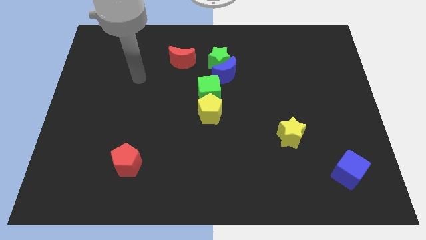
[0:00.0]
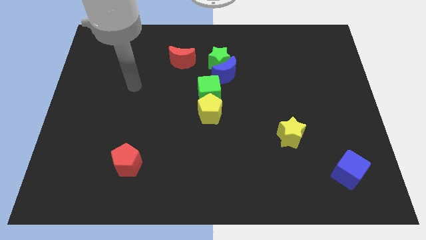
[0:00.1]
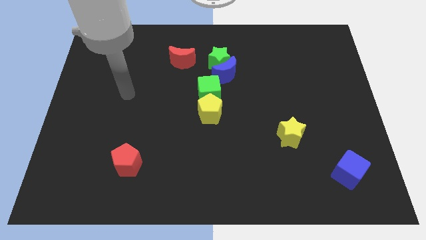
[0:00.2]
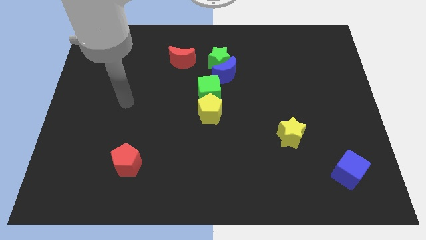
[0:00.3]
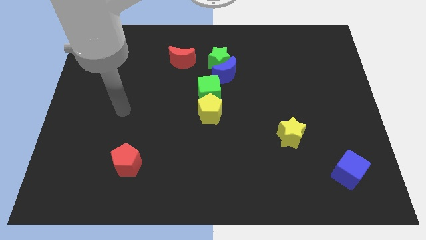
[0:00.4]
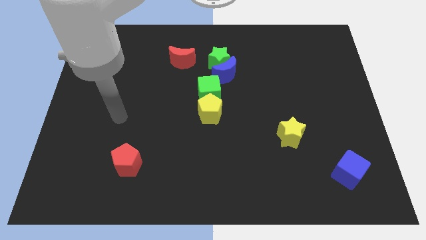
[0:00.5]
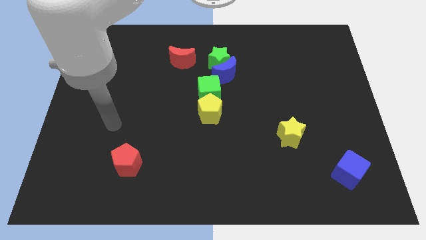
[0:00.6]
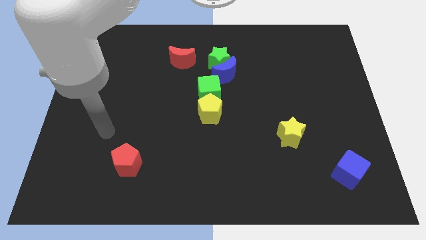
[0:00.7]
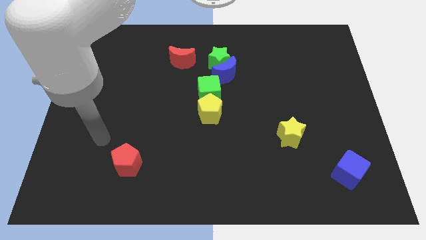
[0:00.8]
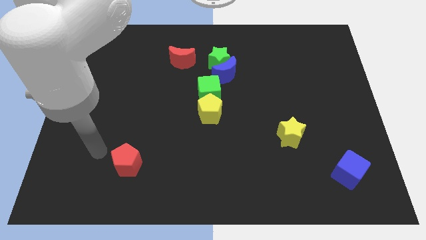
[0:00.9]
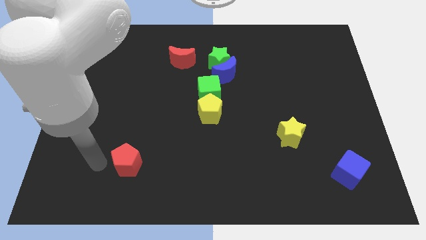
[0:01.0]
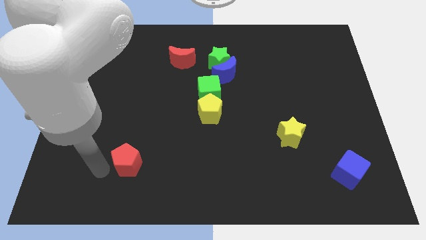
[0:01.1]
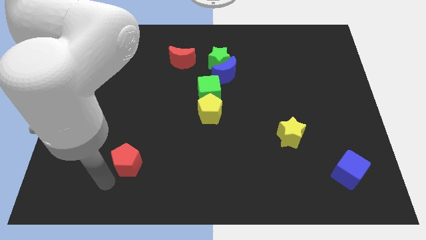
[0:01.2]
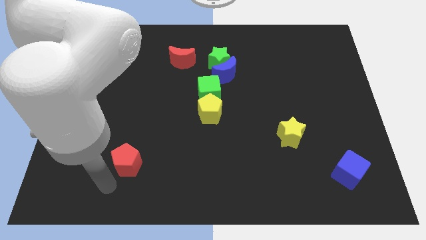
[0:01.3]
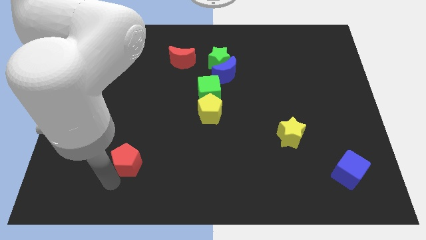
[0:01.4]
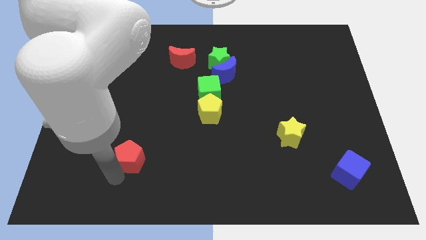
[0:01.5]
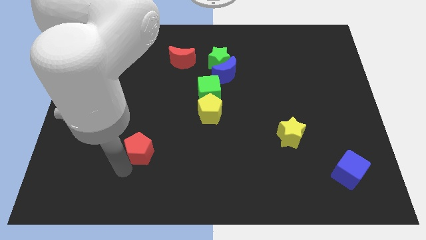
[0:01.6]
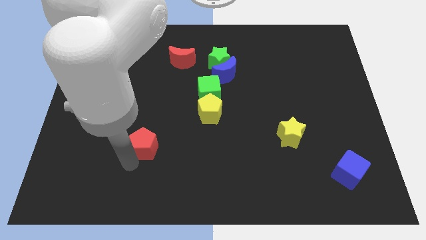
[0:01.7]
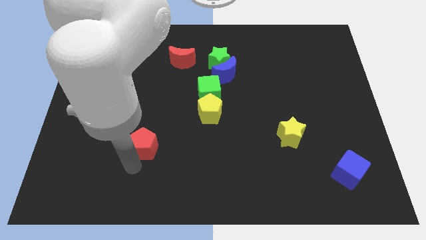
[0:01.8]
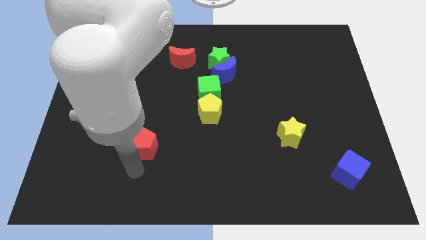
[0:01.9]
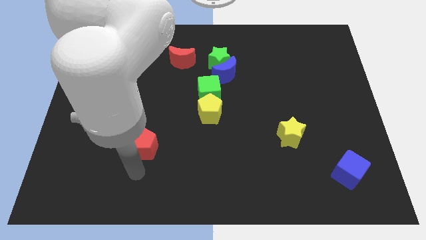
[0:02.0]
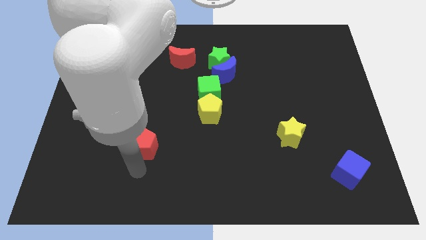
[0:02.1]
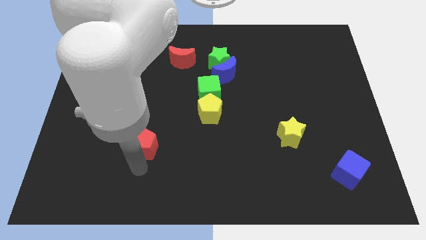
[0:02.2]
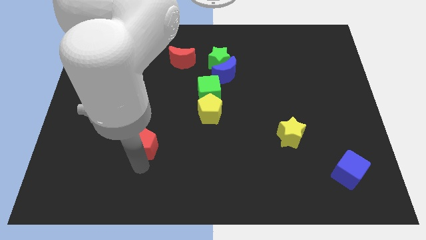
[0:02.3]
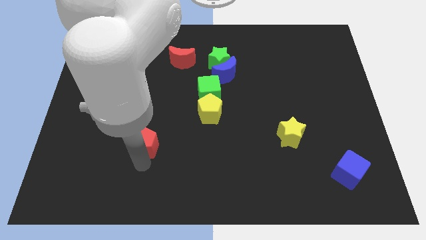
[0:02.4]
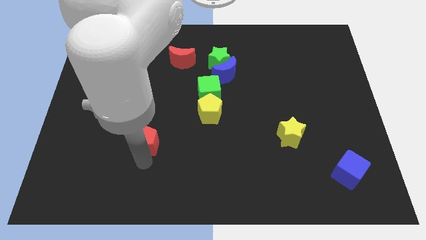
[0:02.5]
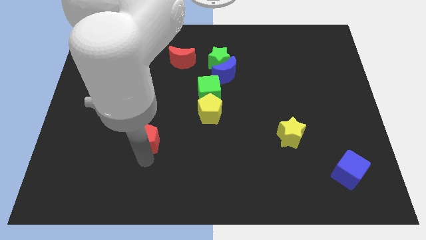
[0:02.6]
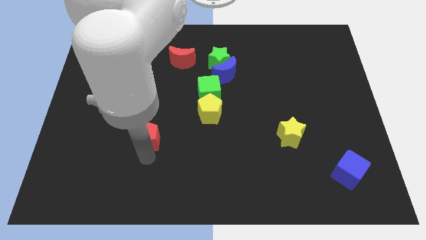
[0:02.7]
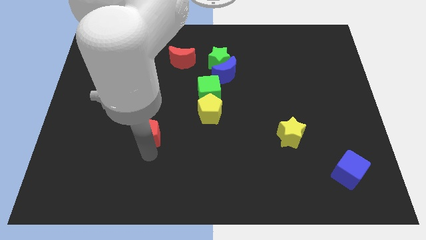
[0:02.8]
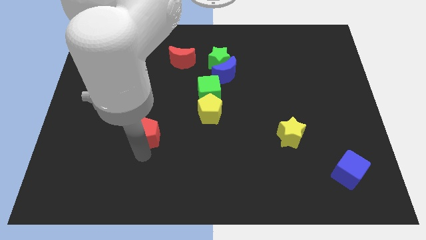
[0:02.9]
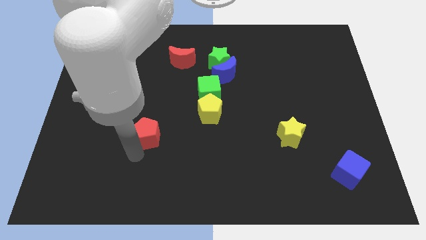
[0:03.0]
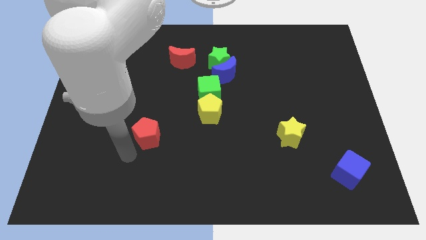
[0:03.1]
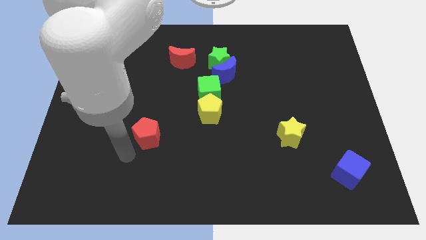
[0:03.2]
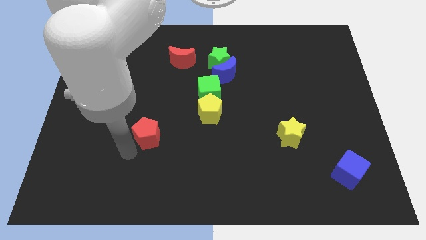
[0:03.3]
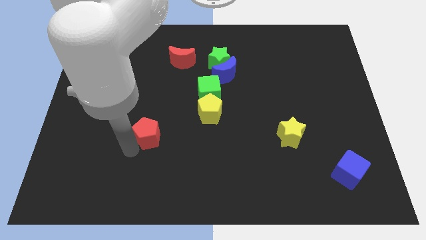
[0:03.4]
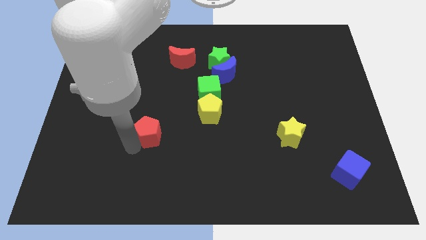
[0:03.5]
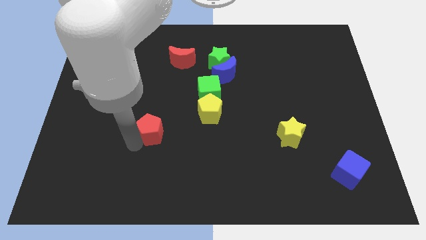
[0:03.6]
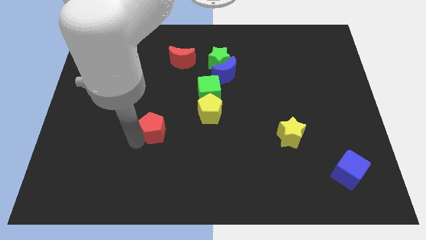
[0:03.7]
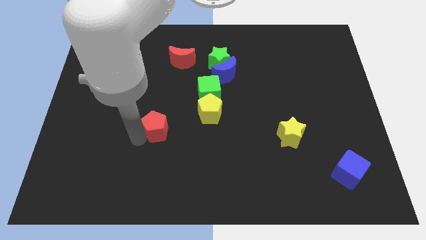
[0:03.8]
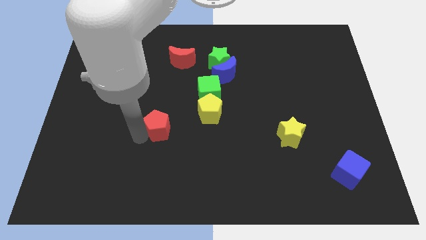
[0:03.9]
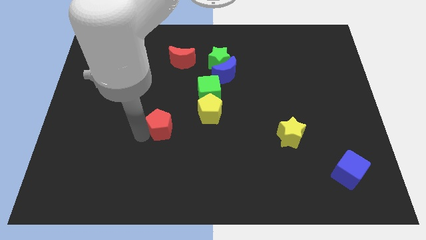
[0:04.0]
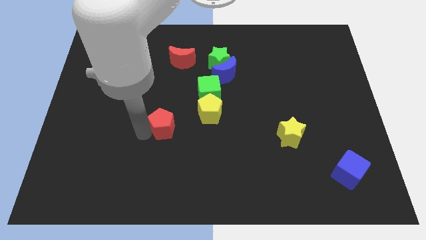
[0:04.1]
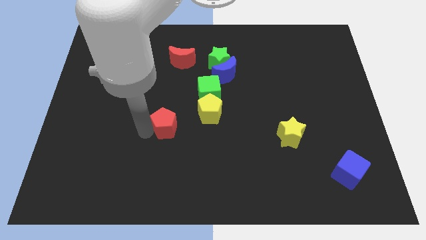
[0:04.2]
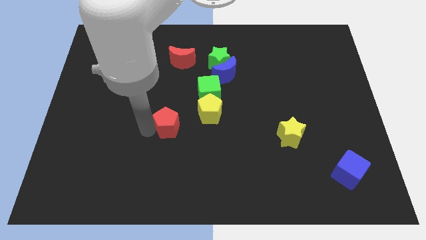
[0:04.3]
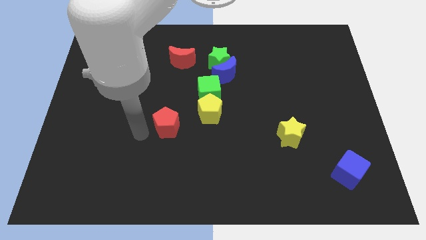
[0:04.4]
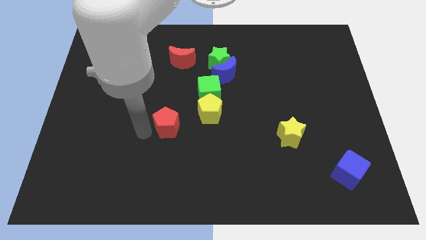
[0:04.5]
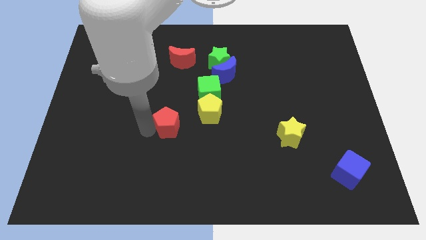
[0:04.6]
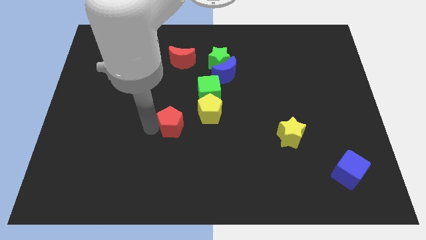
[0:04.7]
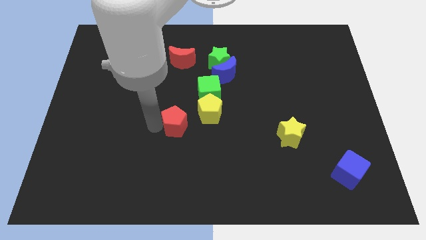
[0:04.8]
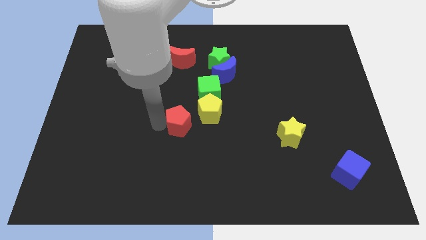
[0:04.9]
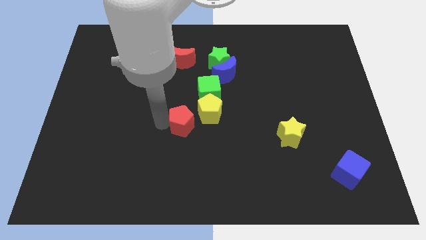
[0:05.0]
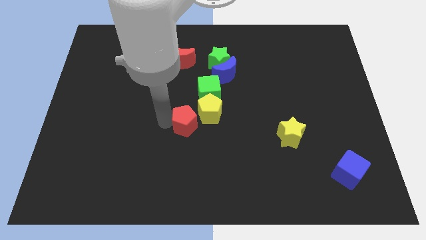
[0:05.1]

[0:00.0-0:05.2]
push the red pentagon towards the yellow pentagon

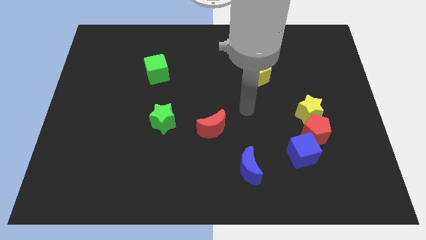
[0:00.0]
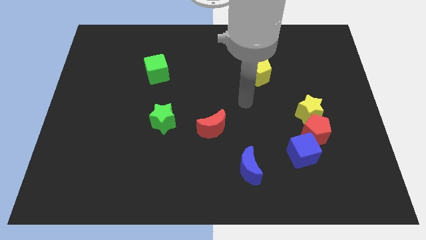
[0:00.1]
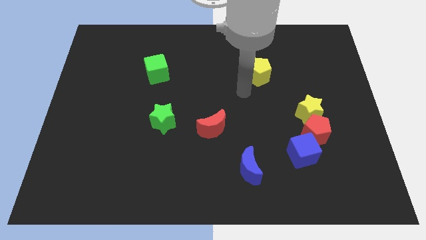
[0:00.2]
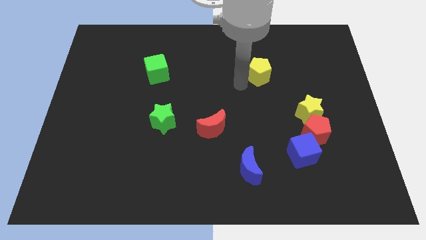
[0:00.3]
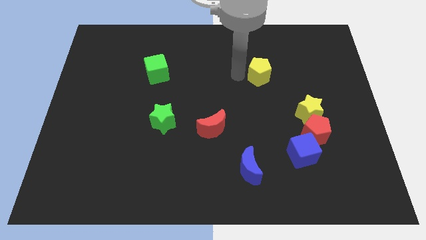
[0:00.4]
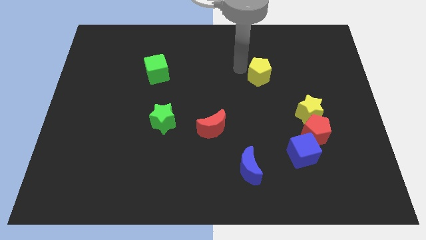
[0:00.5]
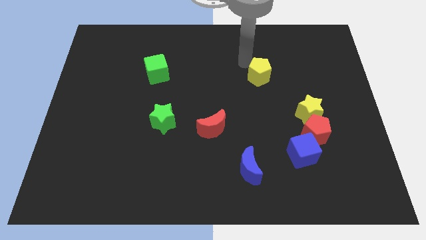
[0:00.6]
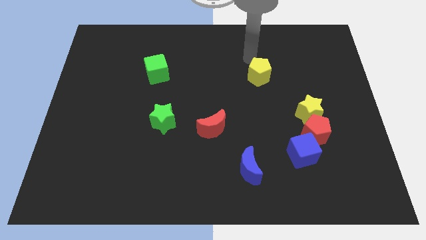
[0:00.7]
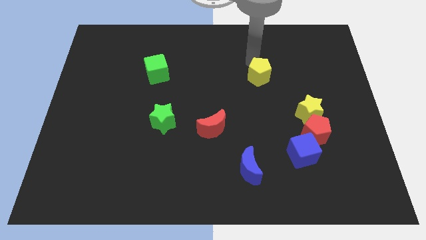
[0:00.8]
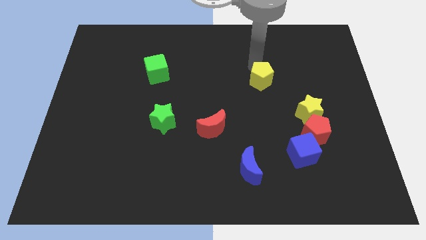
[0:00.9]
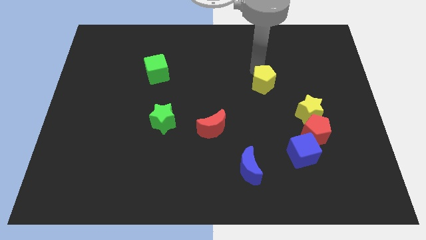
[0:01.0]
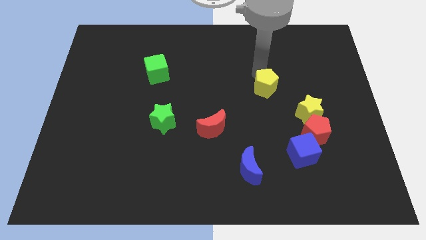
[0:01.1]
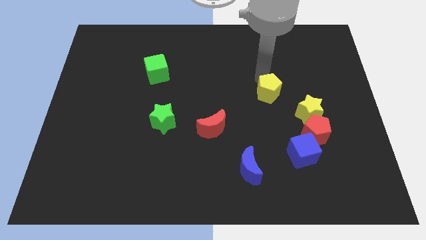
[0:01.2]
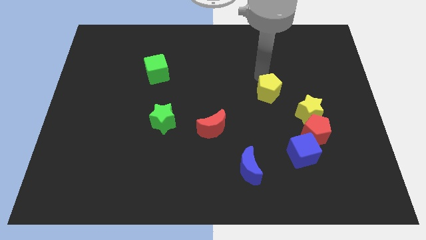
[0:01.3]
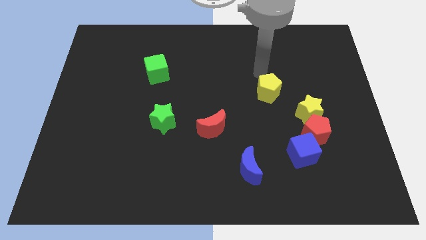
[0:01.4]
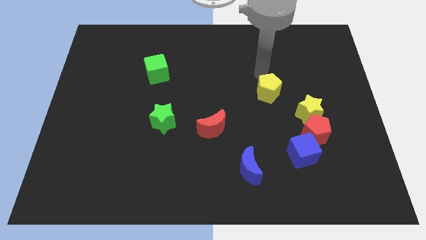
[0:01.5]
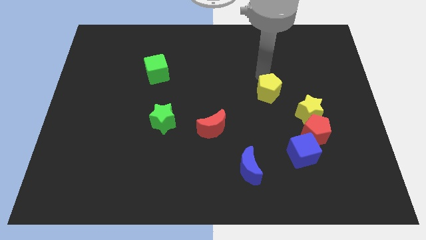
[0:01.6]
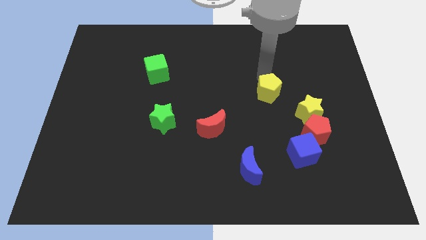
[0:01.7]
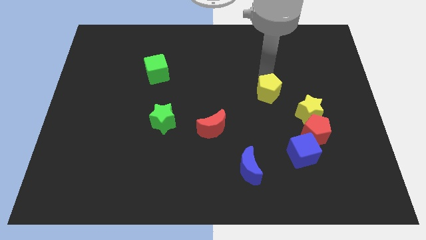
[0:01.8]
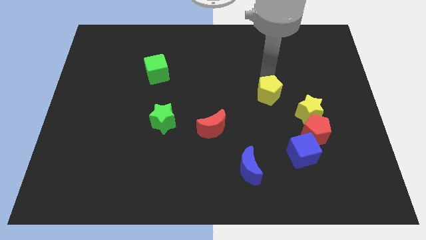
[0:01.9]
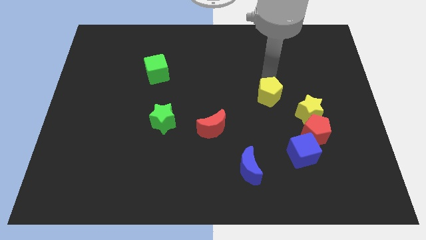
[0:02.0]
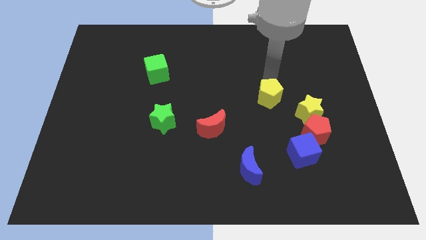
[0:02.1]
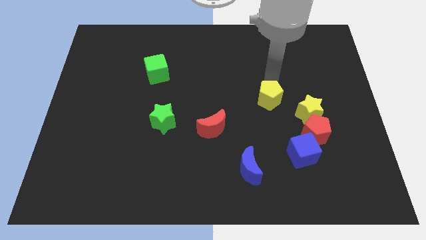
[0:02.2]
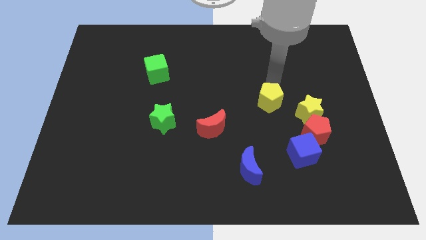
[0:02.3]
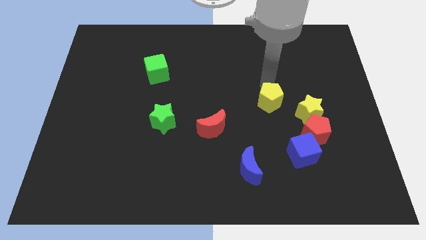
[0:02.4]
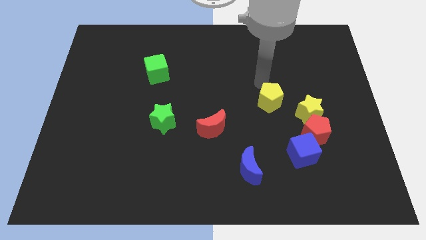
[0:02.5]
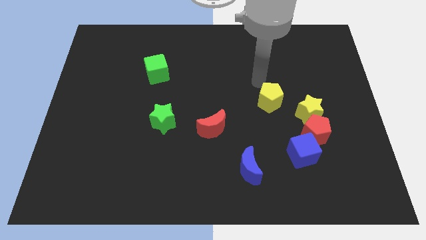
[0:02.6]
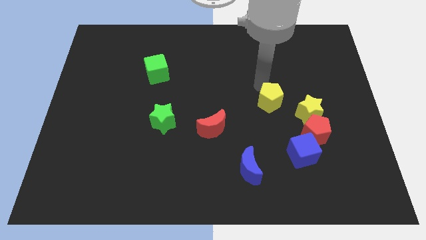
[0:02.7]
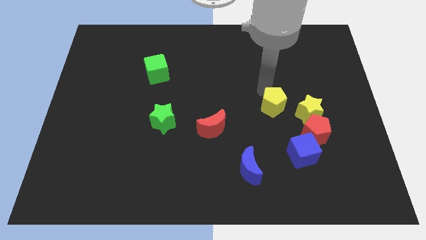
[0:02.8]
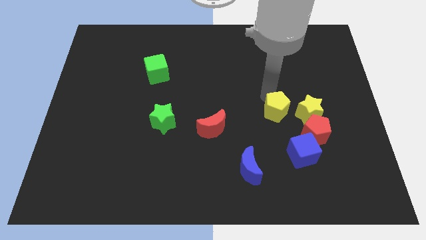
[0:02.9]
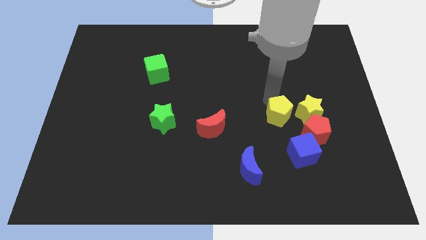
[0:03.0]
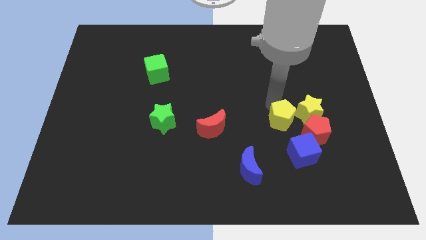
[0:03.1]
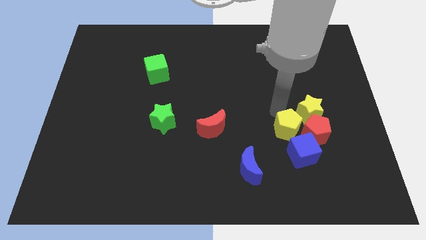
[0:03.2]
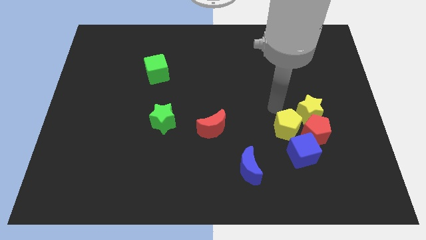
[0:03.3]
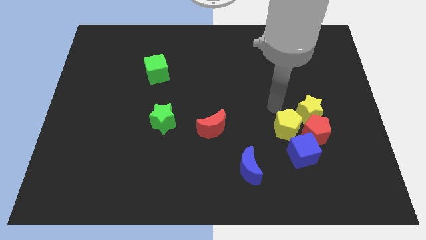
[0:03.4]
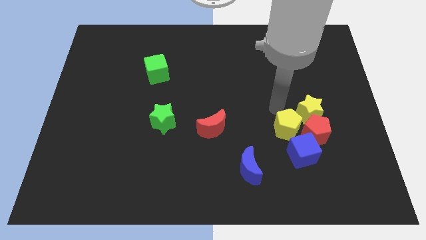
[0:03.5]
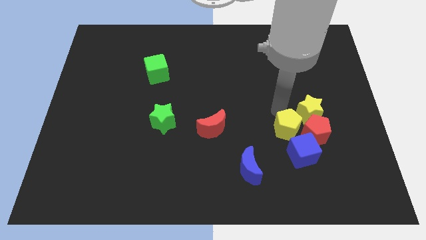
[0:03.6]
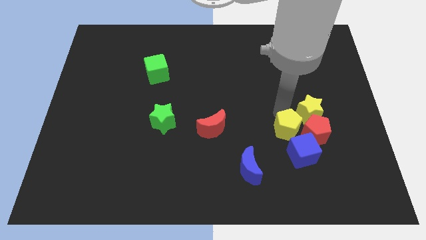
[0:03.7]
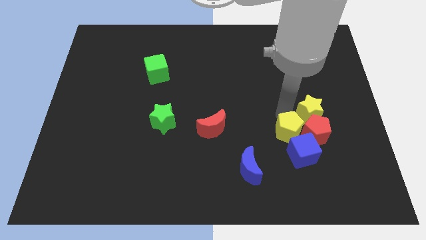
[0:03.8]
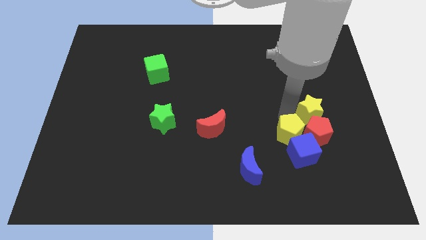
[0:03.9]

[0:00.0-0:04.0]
put the yellow pentagon to the blue cube
